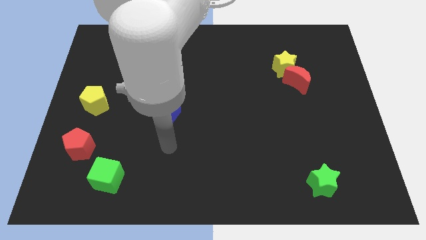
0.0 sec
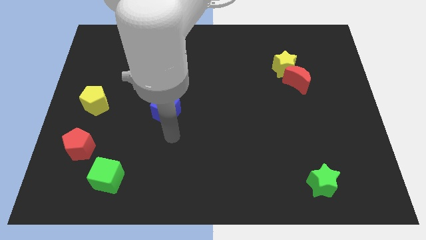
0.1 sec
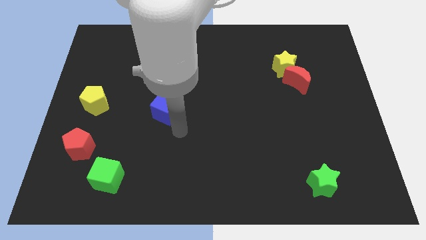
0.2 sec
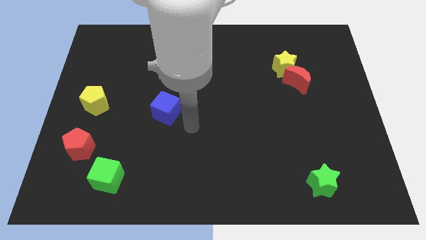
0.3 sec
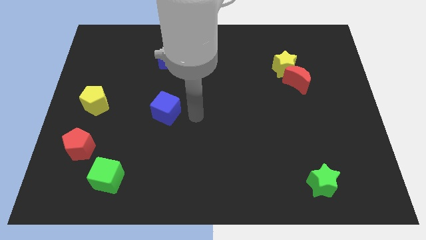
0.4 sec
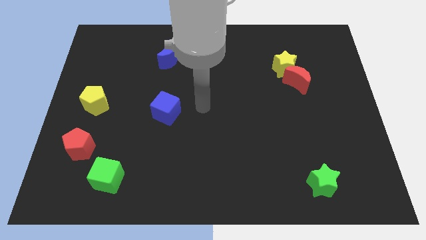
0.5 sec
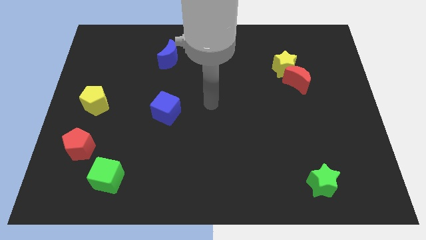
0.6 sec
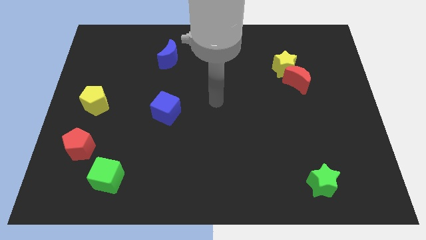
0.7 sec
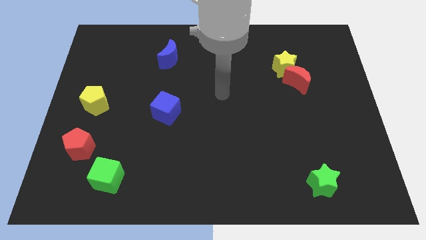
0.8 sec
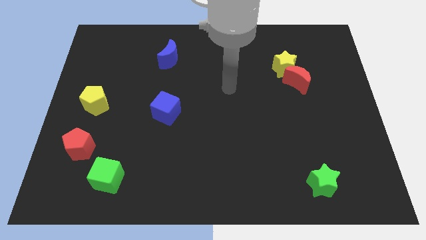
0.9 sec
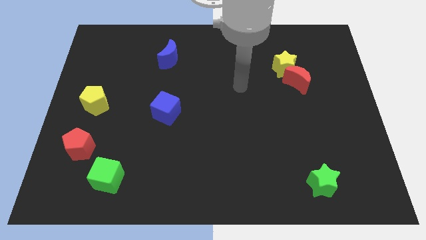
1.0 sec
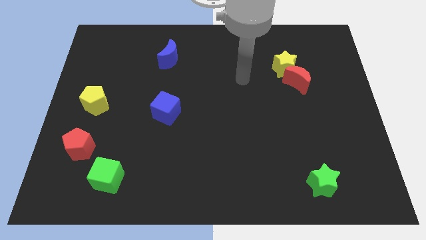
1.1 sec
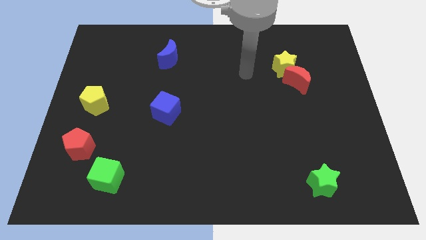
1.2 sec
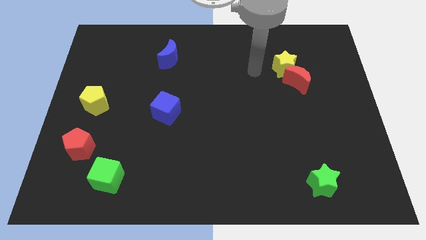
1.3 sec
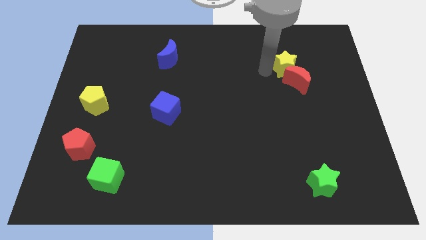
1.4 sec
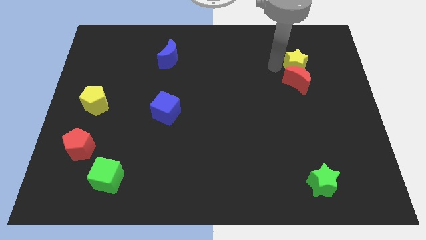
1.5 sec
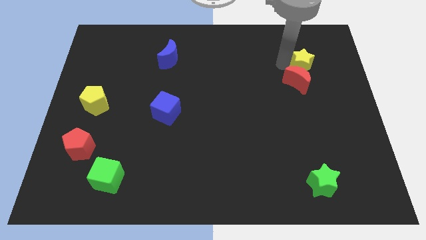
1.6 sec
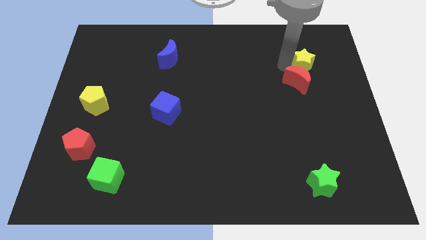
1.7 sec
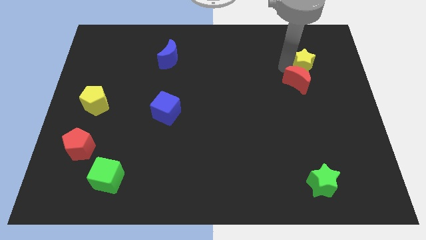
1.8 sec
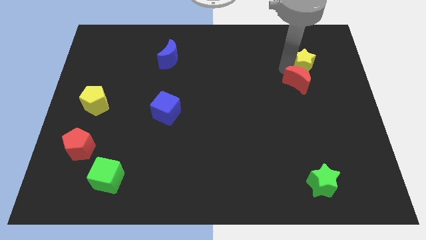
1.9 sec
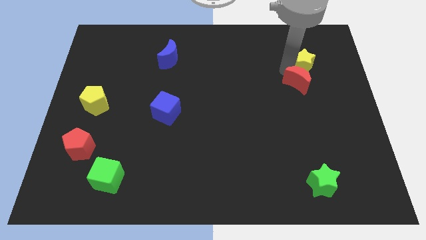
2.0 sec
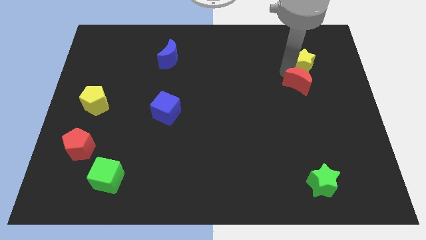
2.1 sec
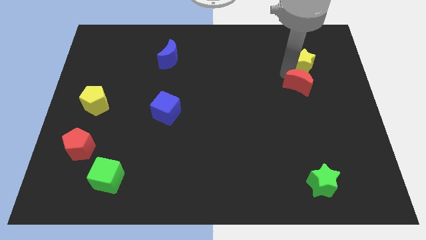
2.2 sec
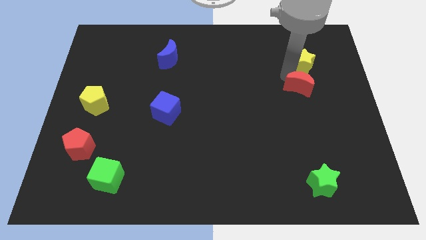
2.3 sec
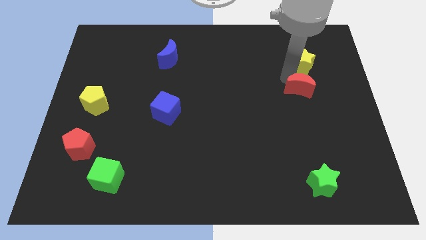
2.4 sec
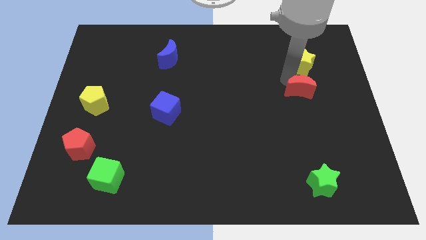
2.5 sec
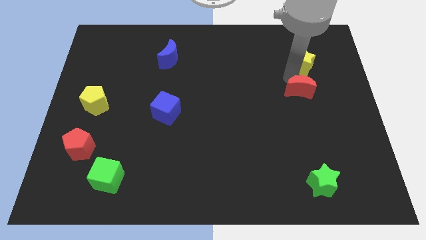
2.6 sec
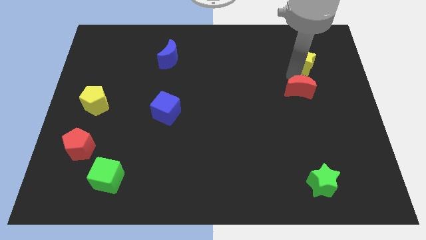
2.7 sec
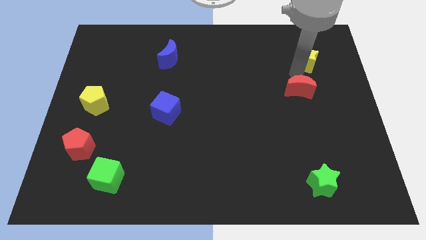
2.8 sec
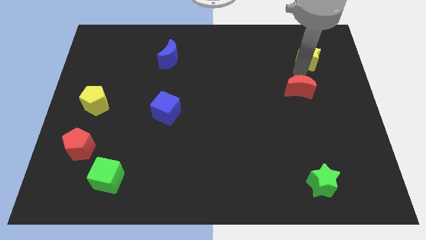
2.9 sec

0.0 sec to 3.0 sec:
separate the red moon from the yellow star

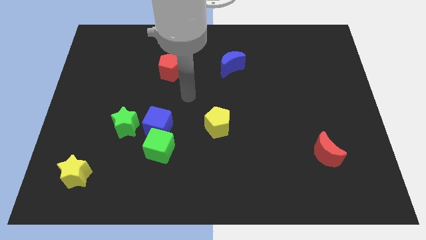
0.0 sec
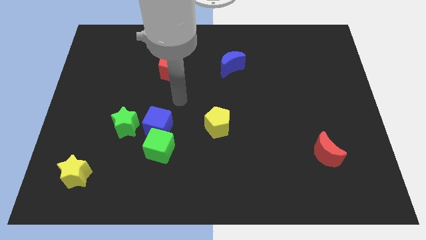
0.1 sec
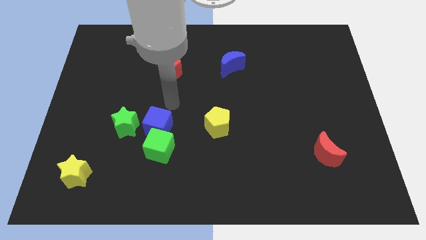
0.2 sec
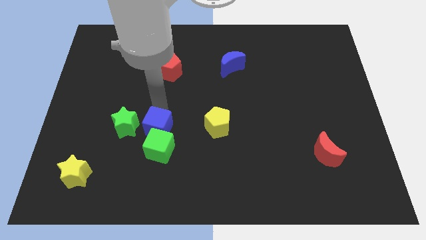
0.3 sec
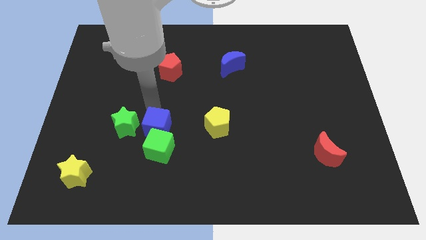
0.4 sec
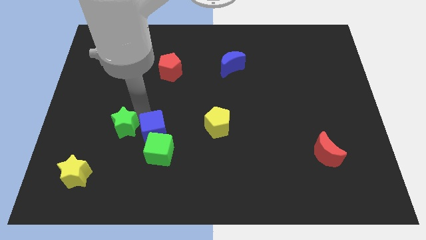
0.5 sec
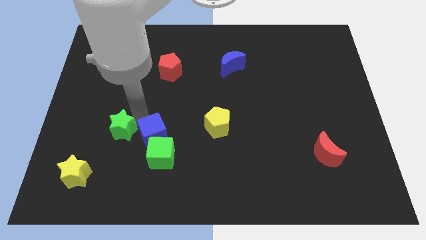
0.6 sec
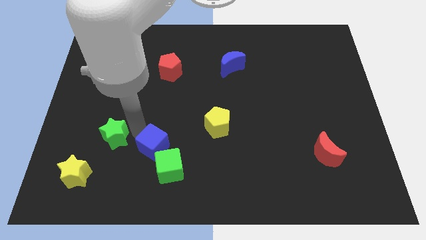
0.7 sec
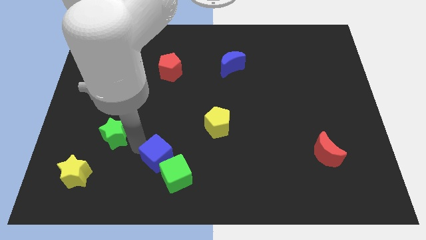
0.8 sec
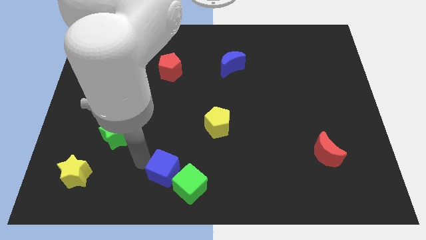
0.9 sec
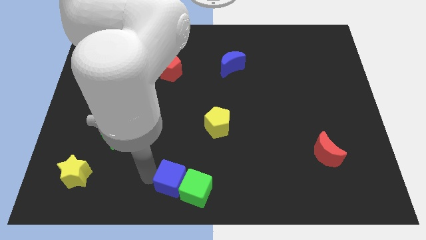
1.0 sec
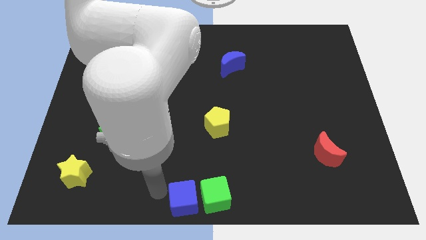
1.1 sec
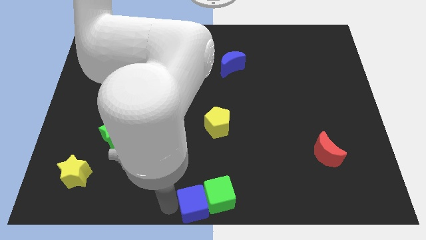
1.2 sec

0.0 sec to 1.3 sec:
separate the blue cube from the green cube and green star

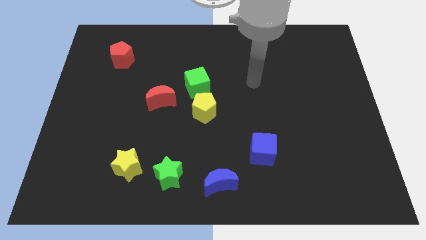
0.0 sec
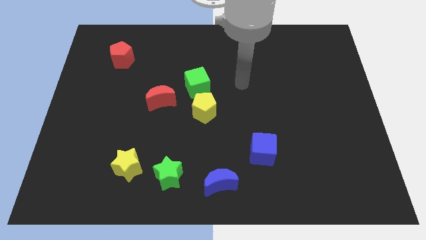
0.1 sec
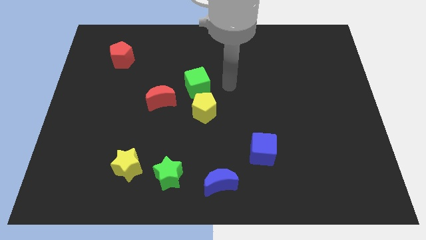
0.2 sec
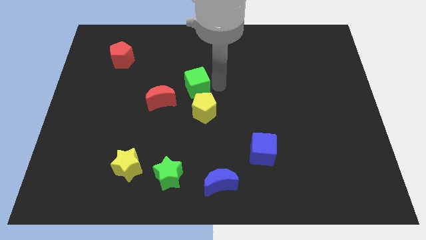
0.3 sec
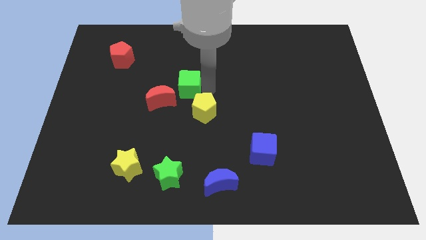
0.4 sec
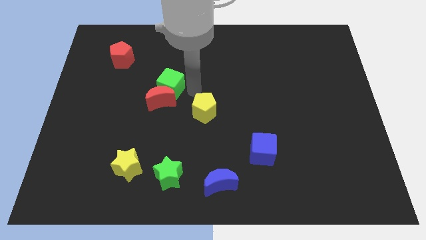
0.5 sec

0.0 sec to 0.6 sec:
separate the yellow pentagon from the green cube

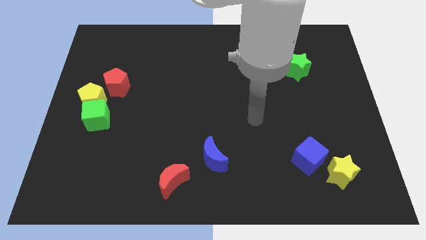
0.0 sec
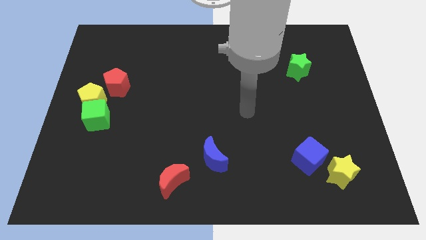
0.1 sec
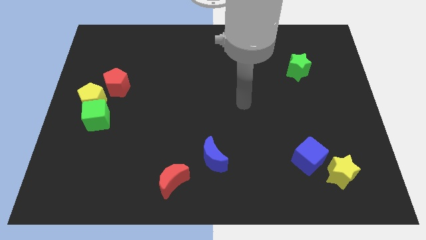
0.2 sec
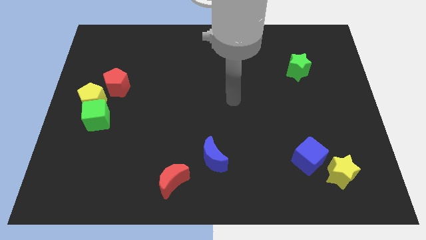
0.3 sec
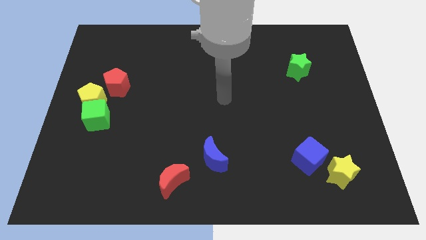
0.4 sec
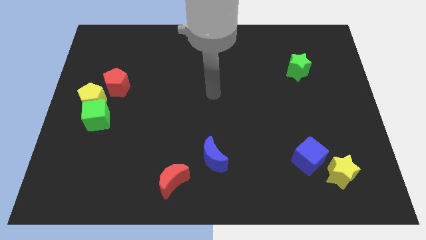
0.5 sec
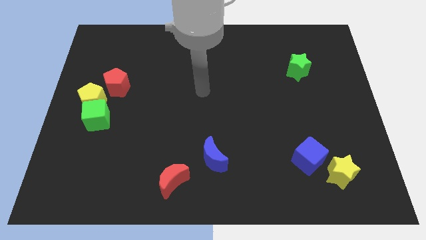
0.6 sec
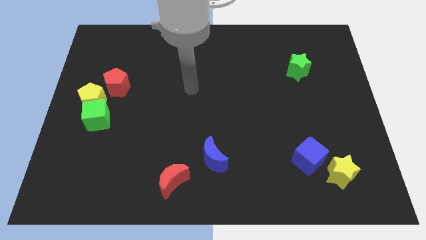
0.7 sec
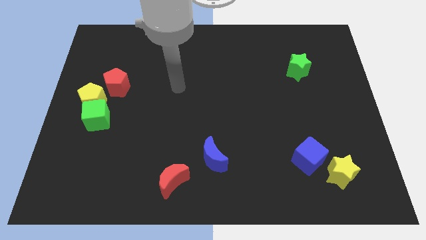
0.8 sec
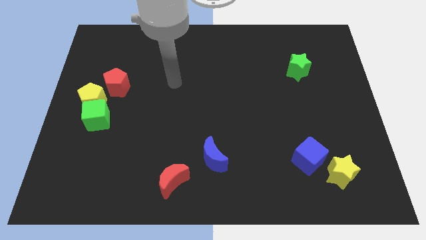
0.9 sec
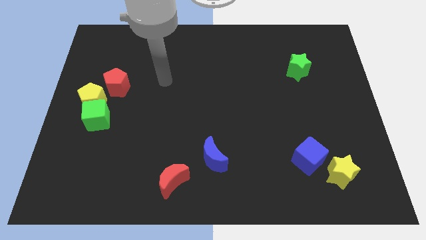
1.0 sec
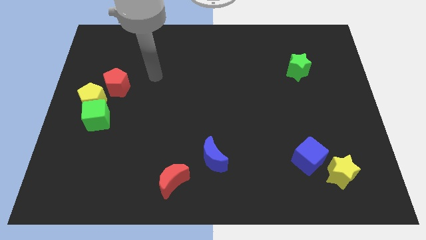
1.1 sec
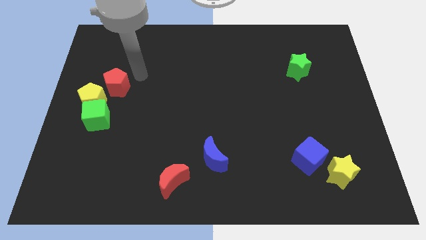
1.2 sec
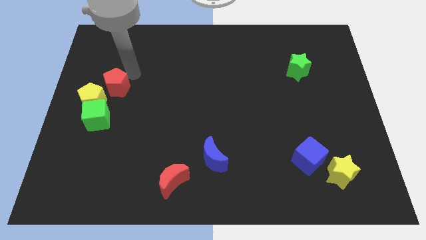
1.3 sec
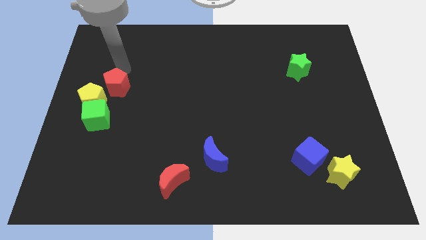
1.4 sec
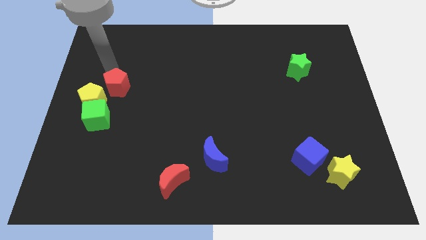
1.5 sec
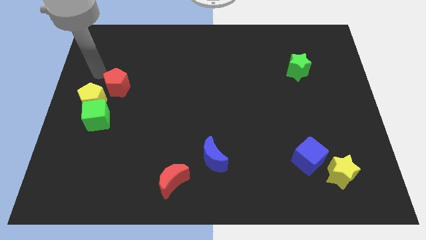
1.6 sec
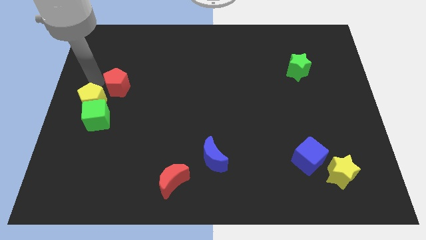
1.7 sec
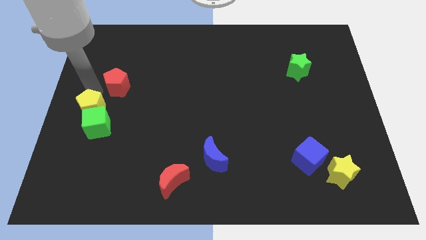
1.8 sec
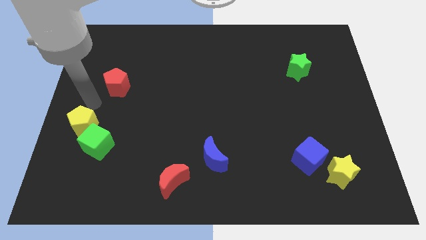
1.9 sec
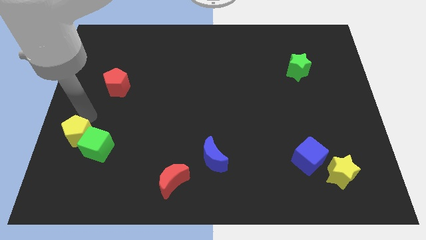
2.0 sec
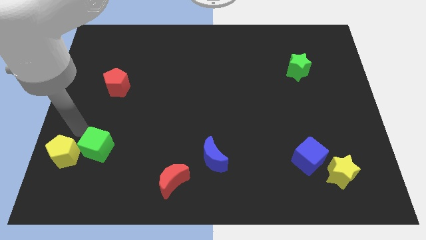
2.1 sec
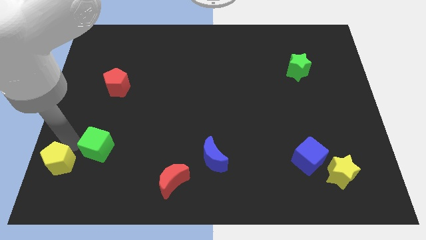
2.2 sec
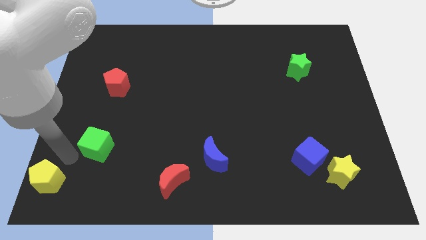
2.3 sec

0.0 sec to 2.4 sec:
separate the green cube from the yellow pentagon

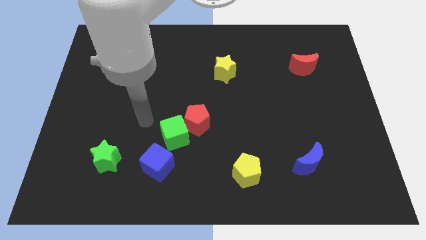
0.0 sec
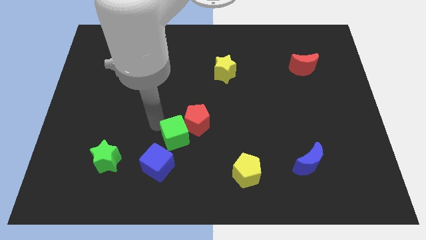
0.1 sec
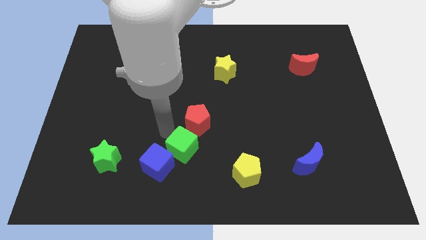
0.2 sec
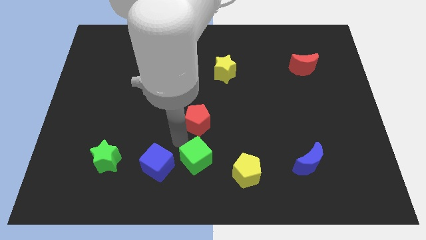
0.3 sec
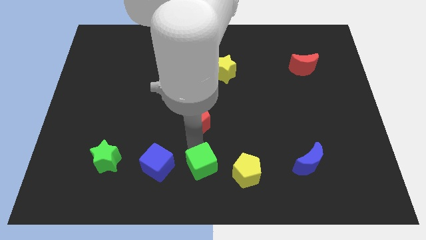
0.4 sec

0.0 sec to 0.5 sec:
move the red pentagon away from the green cube

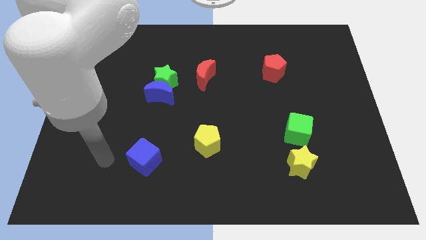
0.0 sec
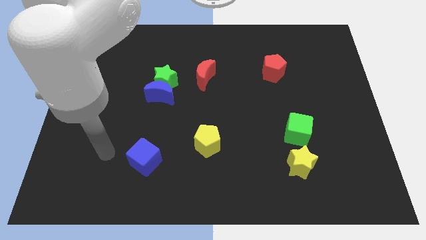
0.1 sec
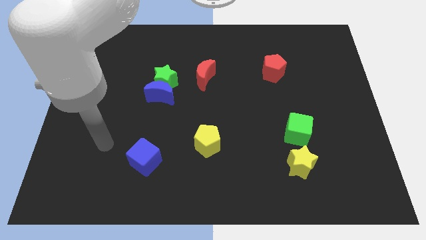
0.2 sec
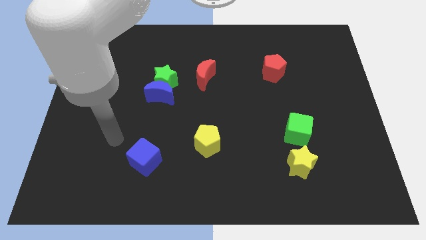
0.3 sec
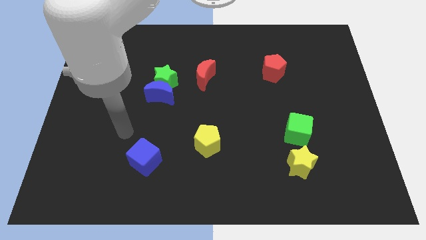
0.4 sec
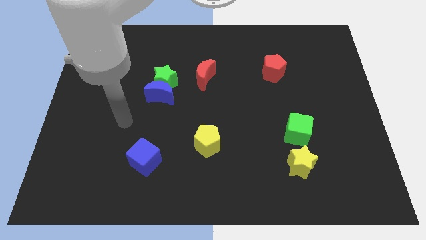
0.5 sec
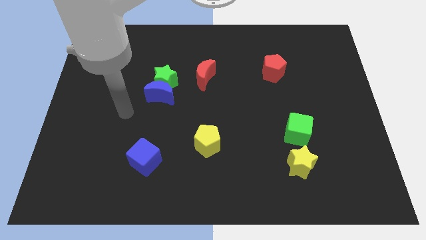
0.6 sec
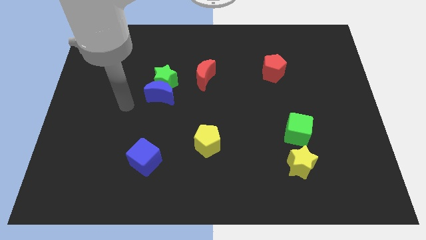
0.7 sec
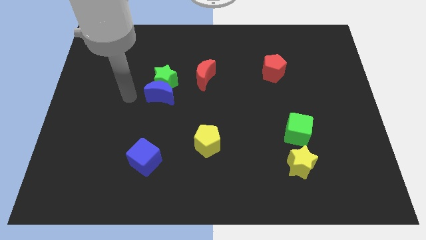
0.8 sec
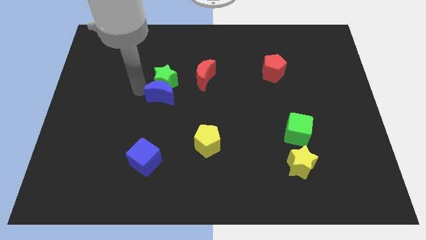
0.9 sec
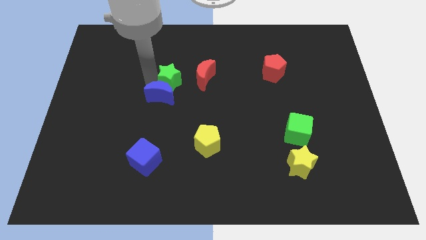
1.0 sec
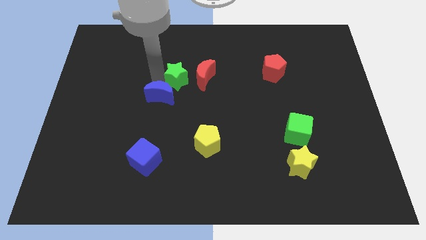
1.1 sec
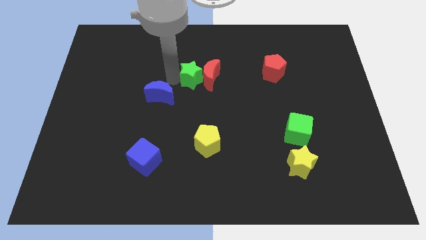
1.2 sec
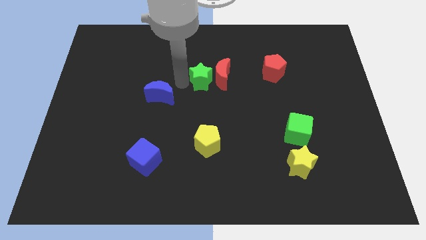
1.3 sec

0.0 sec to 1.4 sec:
separate the blue moon from the green star

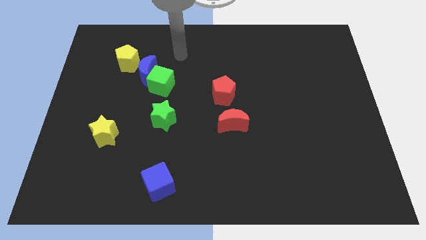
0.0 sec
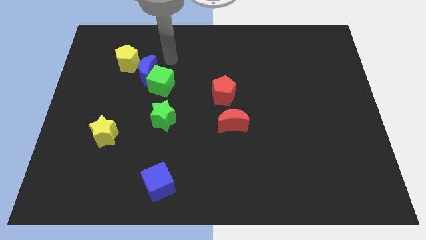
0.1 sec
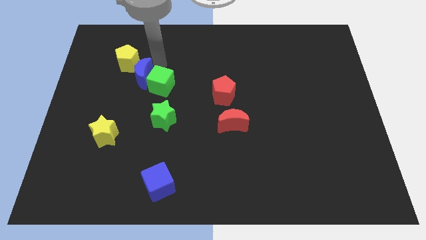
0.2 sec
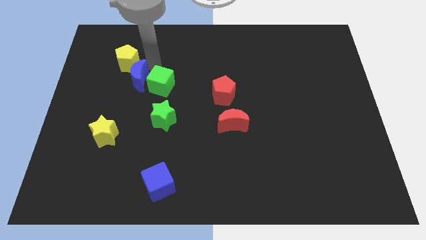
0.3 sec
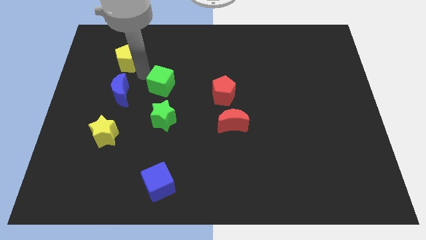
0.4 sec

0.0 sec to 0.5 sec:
pull the green cube apart from the blue moon
